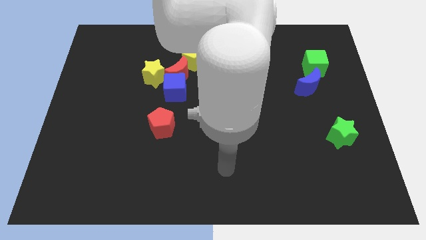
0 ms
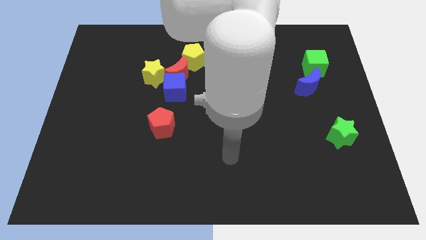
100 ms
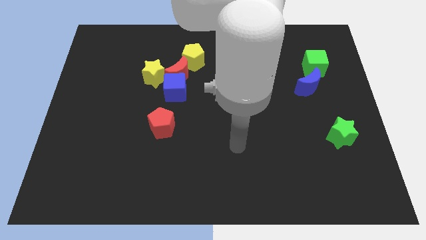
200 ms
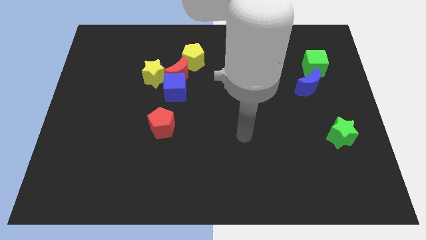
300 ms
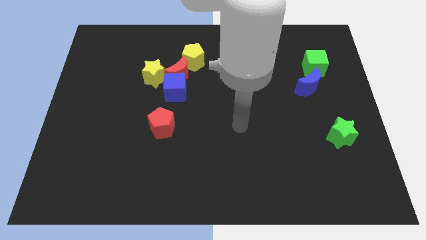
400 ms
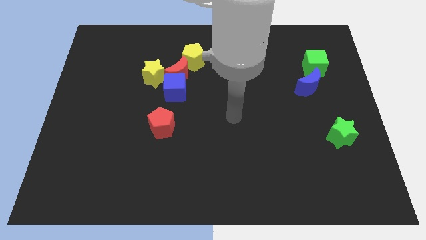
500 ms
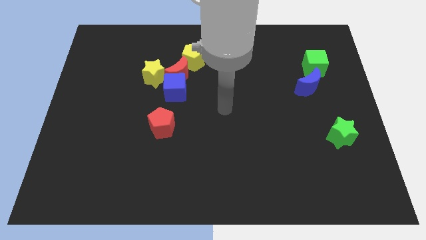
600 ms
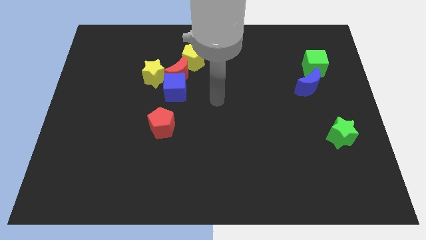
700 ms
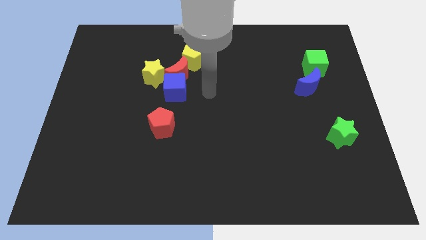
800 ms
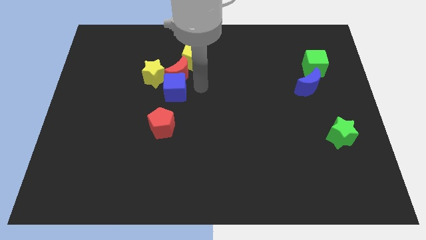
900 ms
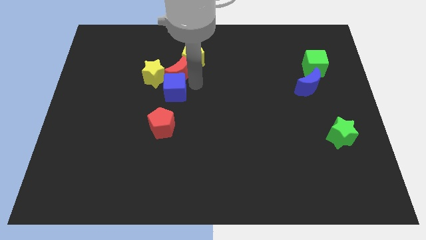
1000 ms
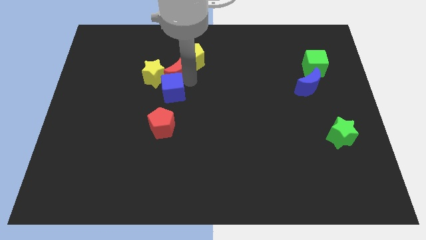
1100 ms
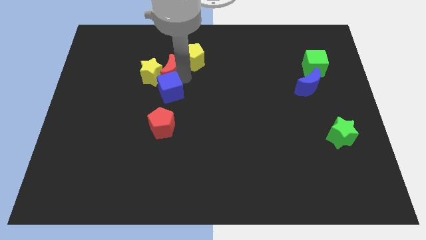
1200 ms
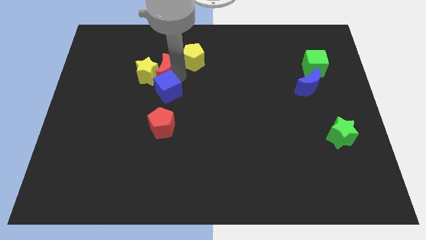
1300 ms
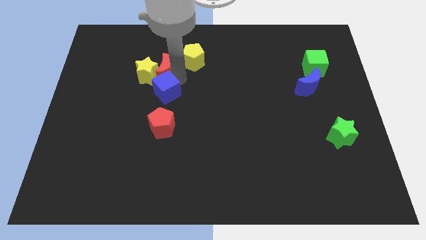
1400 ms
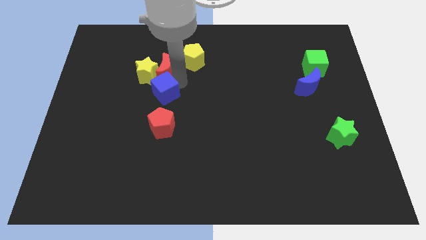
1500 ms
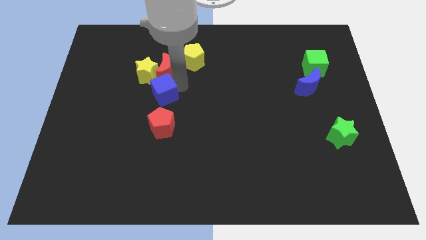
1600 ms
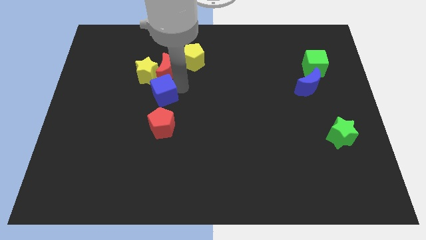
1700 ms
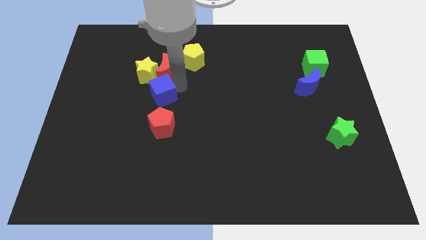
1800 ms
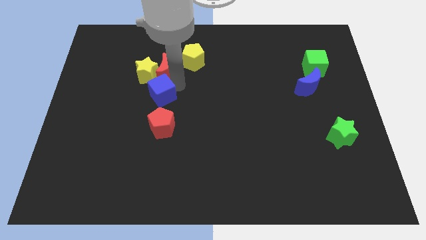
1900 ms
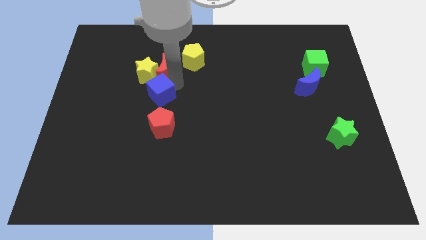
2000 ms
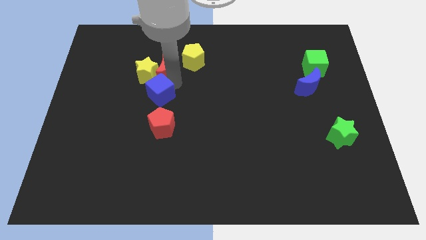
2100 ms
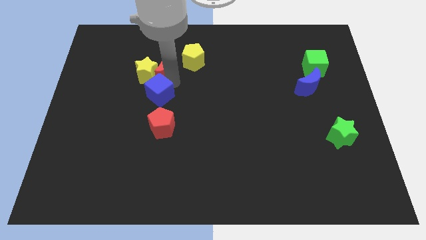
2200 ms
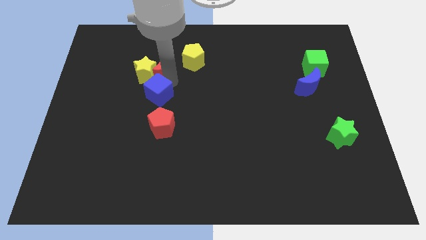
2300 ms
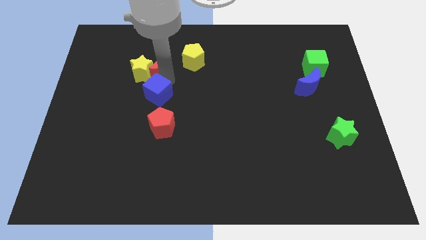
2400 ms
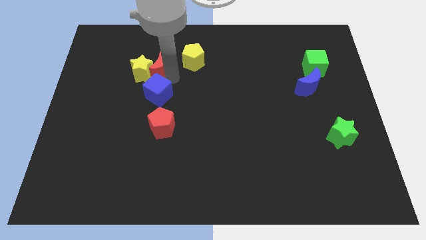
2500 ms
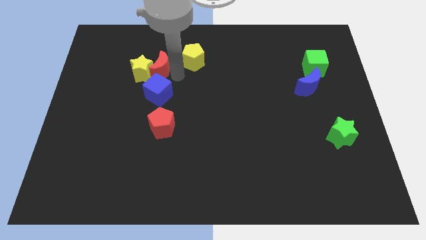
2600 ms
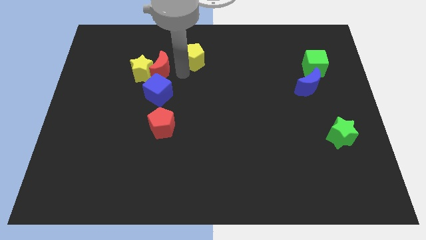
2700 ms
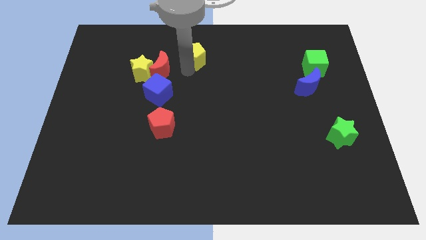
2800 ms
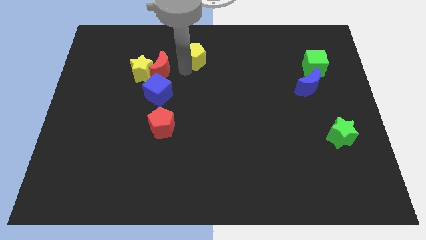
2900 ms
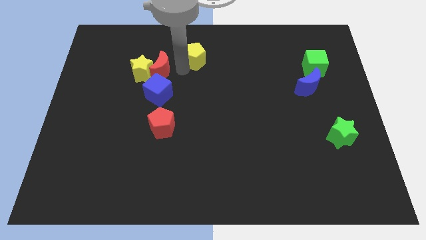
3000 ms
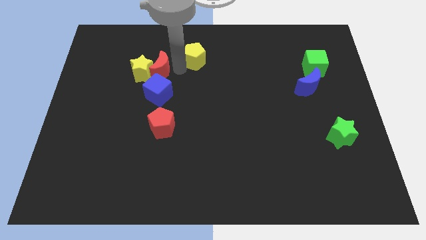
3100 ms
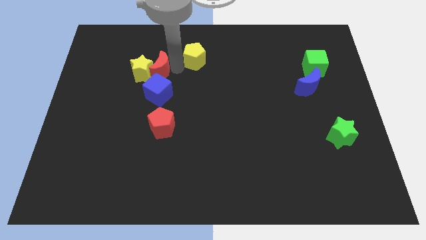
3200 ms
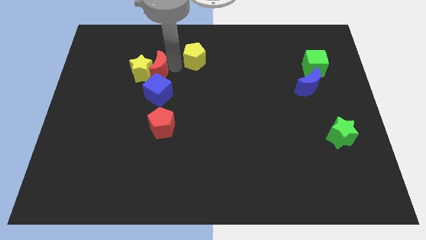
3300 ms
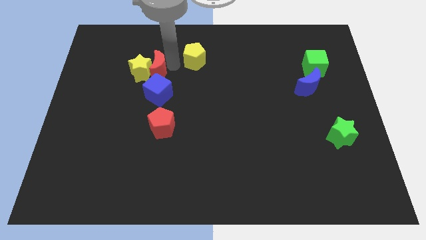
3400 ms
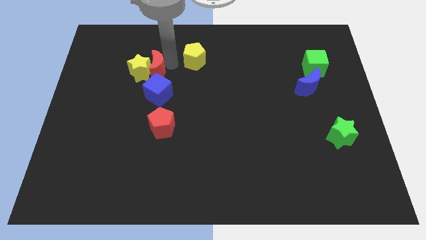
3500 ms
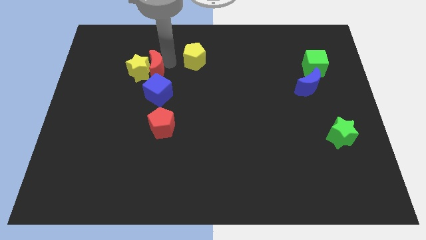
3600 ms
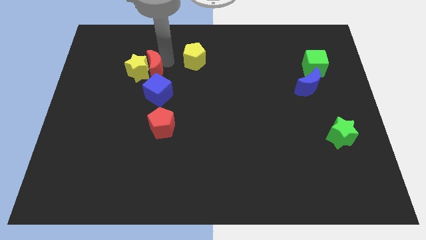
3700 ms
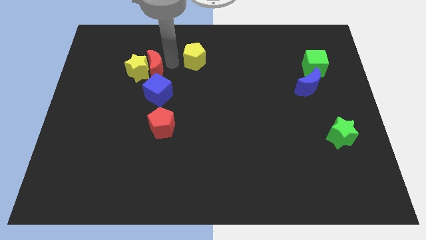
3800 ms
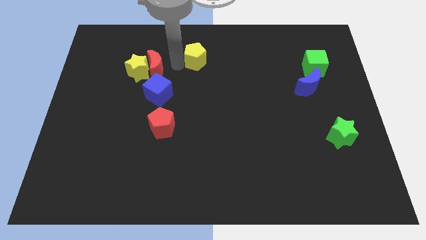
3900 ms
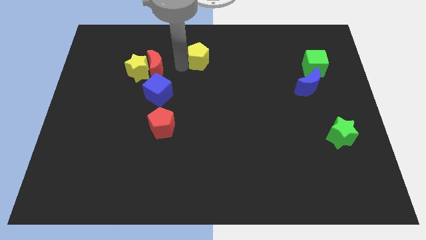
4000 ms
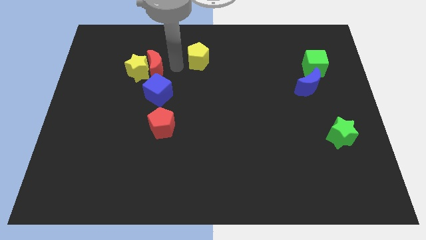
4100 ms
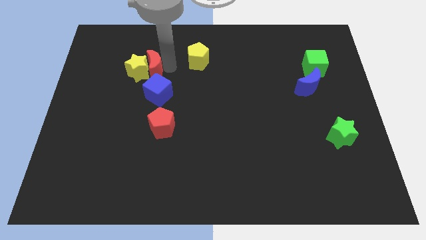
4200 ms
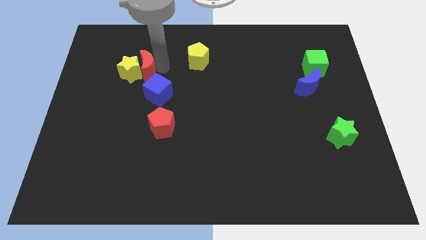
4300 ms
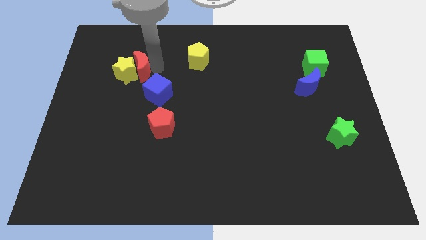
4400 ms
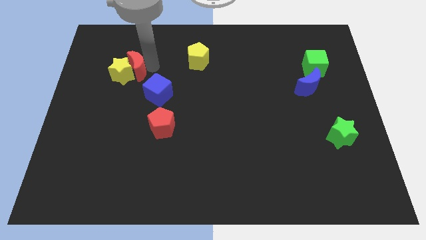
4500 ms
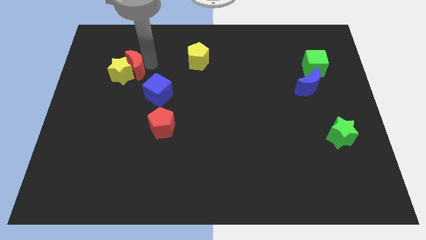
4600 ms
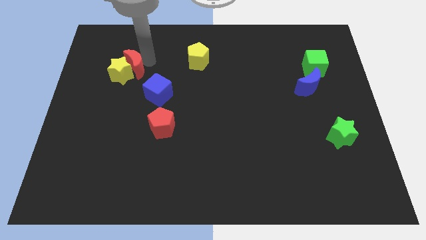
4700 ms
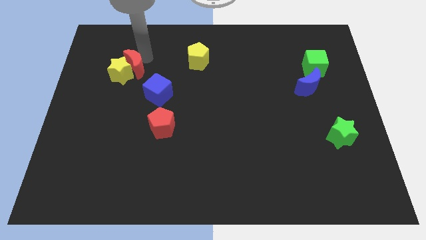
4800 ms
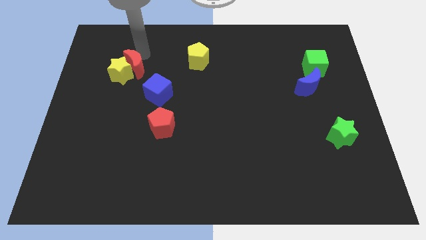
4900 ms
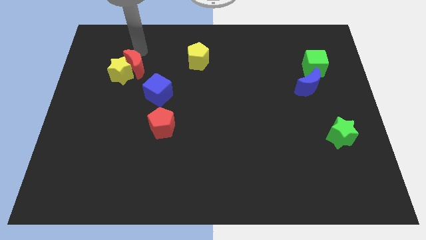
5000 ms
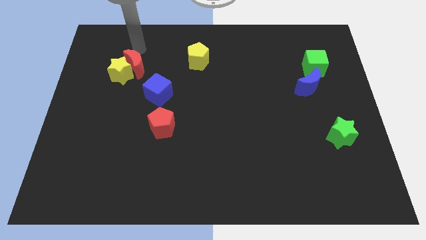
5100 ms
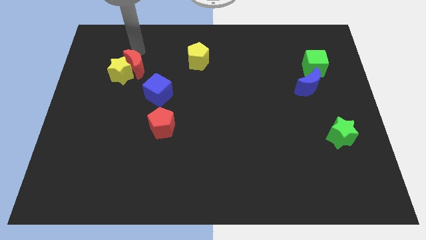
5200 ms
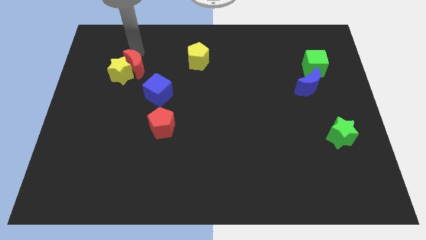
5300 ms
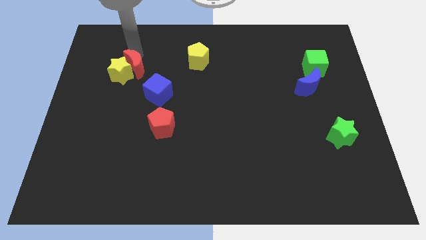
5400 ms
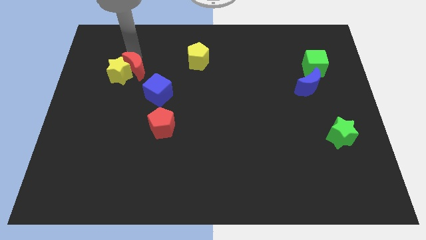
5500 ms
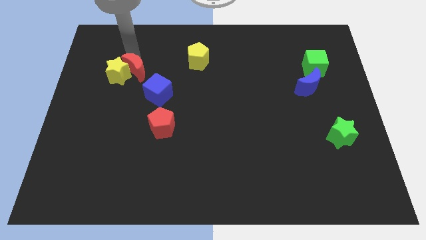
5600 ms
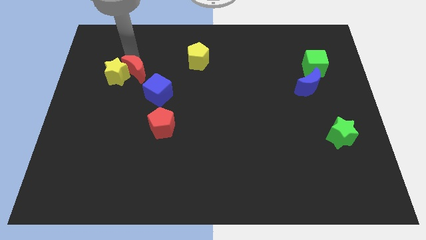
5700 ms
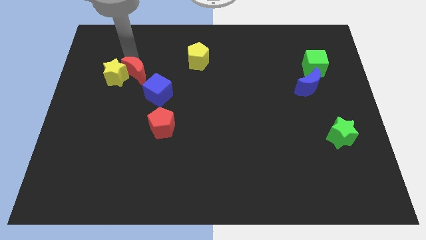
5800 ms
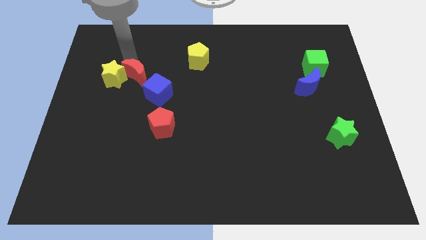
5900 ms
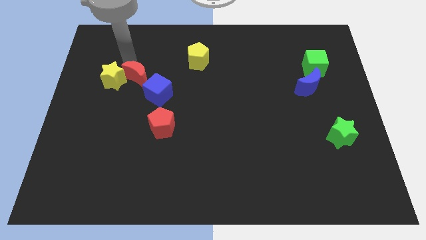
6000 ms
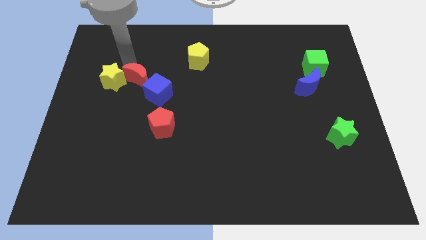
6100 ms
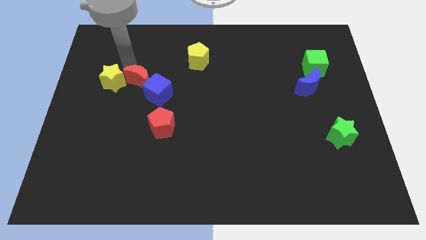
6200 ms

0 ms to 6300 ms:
move the red moon diagonally down and to the left a little

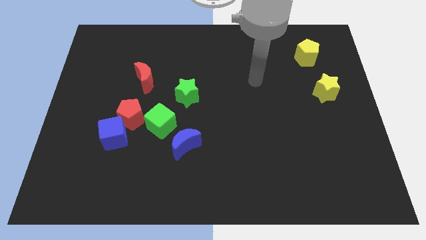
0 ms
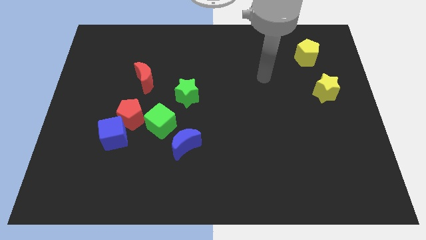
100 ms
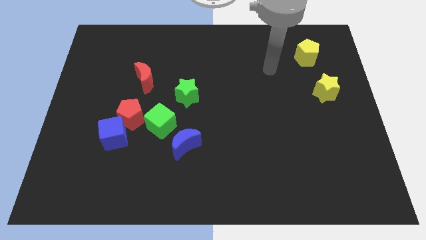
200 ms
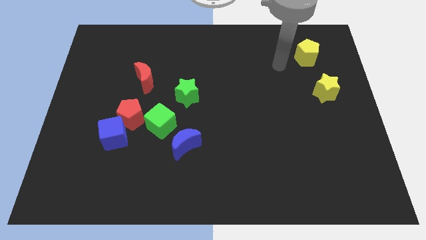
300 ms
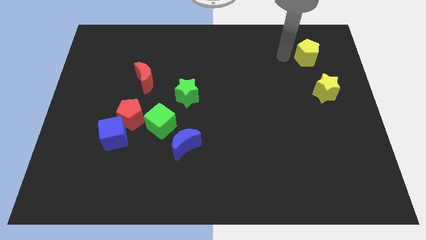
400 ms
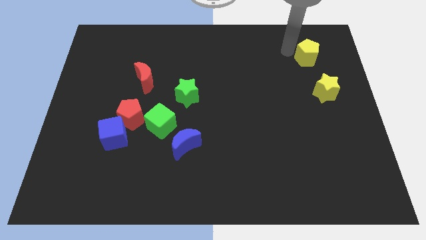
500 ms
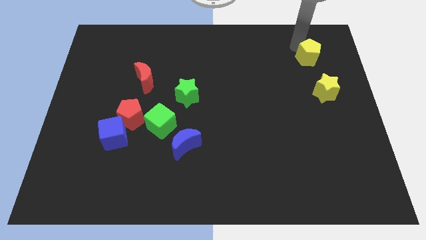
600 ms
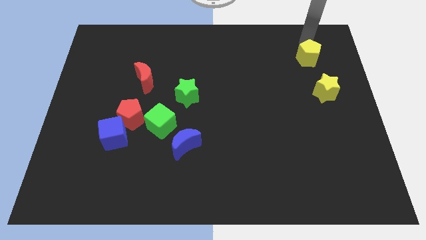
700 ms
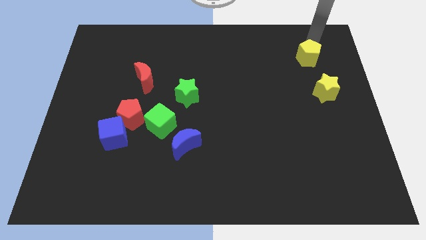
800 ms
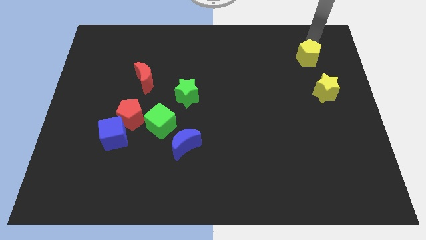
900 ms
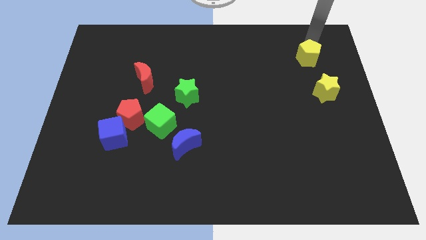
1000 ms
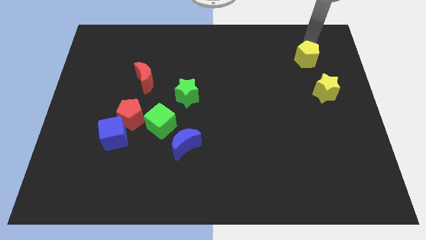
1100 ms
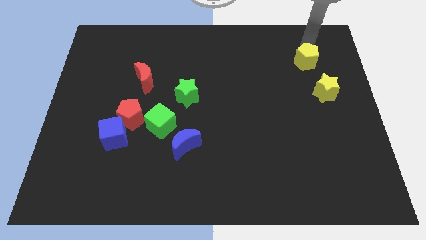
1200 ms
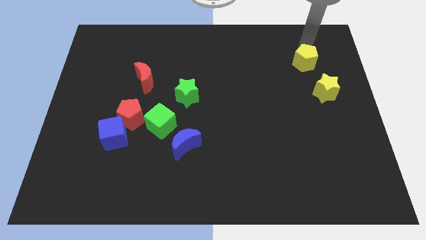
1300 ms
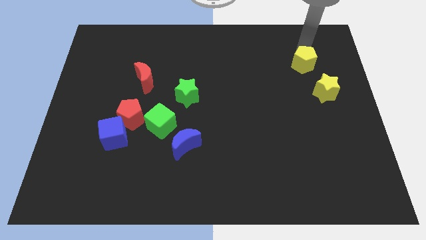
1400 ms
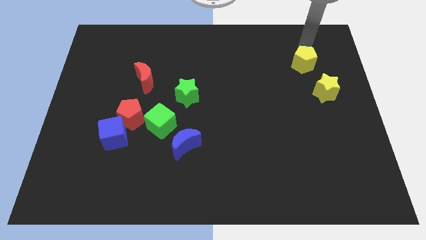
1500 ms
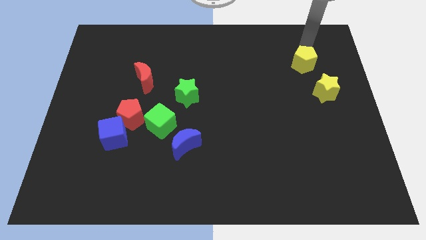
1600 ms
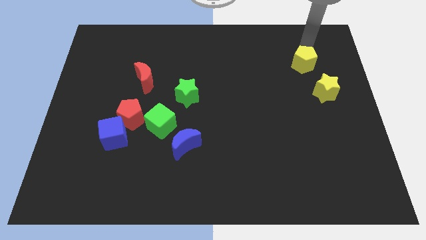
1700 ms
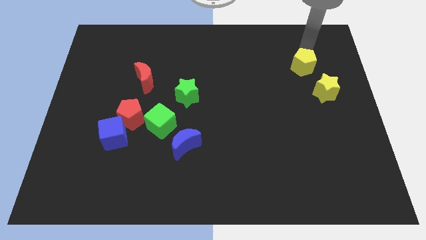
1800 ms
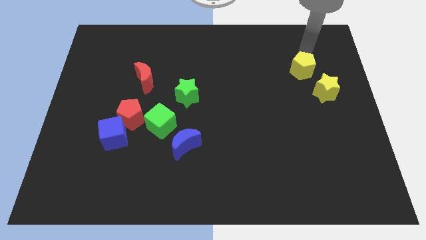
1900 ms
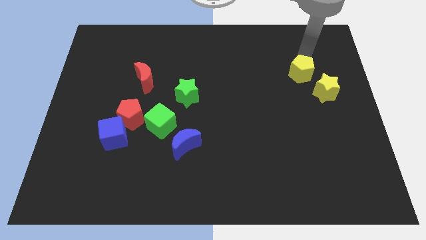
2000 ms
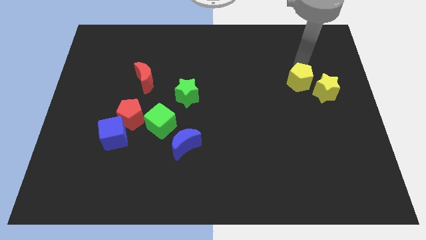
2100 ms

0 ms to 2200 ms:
slide the yellow pentagon down a bit
